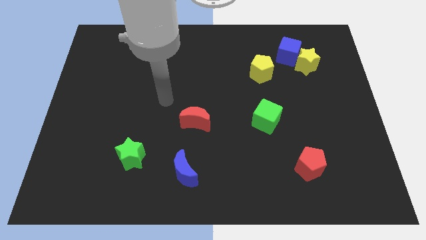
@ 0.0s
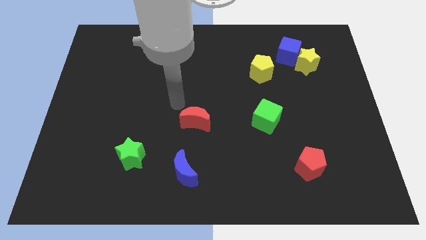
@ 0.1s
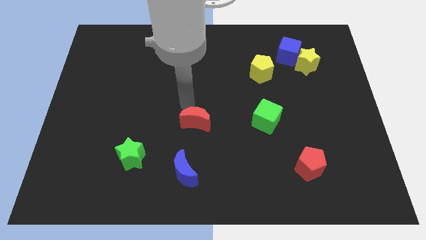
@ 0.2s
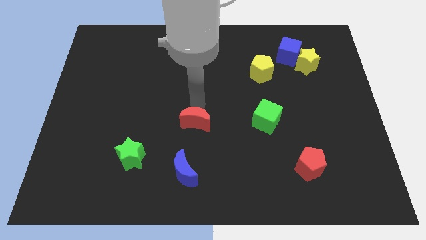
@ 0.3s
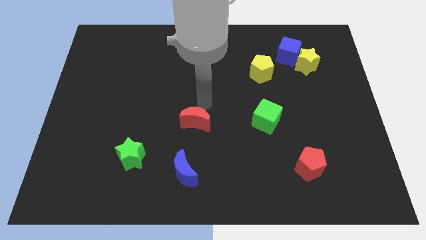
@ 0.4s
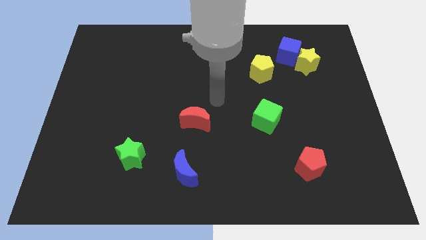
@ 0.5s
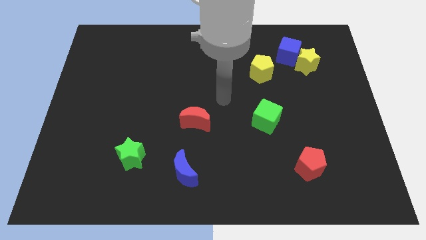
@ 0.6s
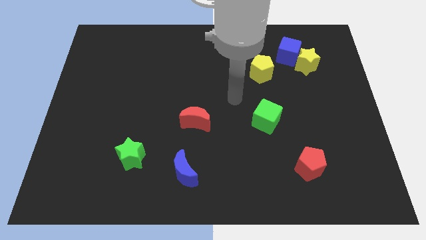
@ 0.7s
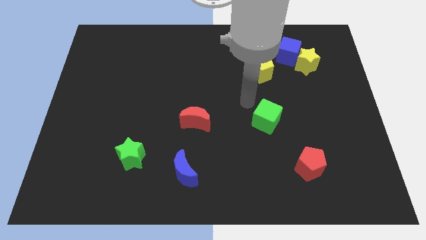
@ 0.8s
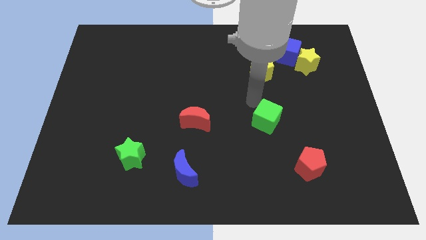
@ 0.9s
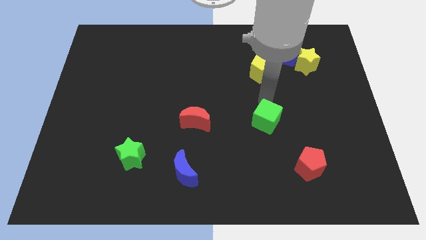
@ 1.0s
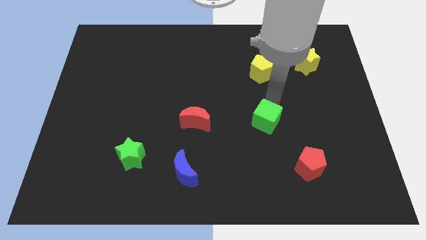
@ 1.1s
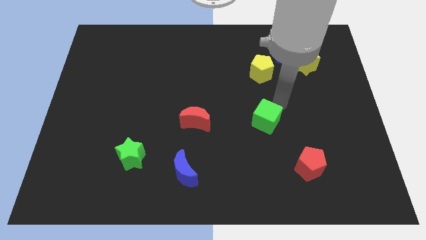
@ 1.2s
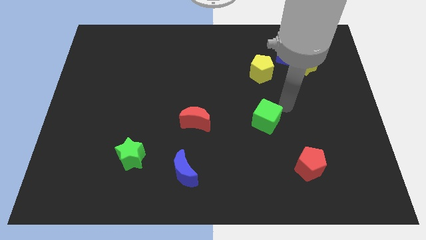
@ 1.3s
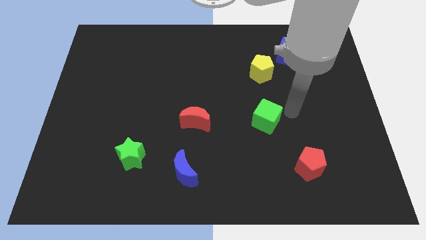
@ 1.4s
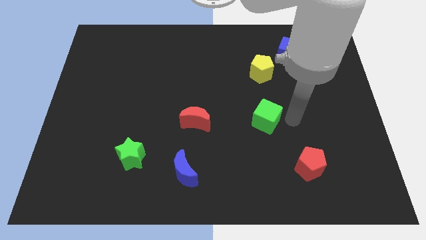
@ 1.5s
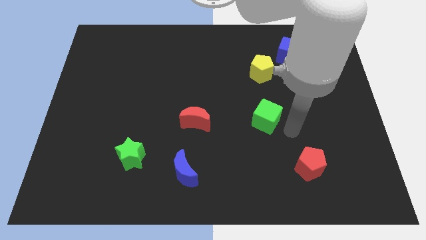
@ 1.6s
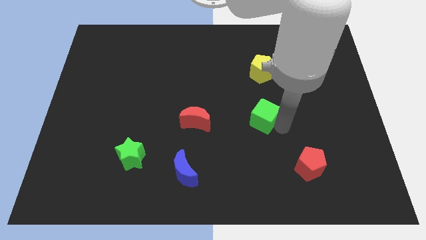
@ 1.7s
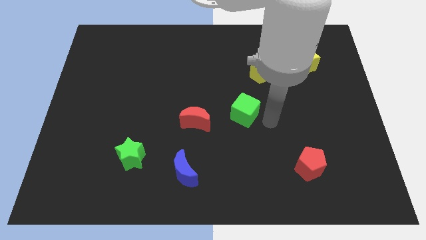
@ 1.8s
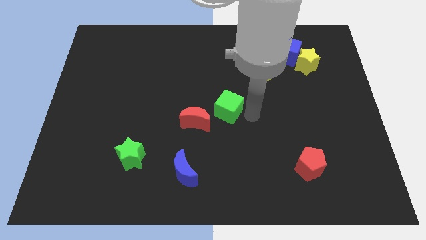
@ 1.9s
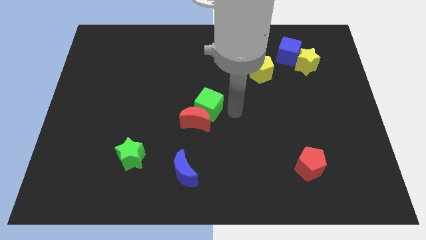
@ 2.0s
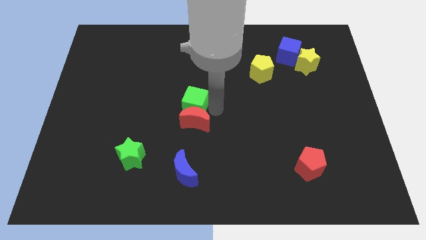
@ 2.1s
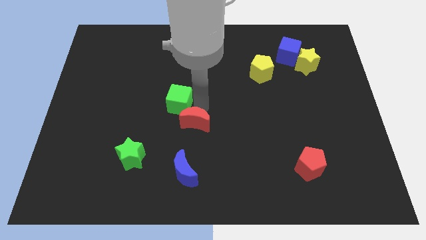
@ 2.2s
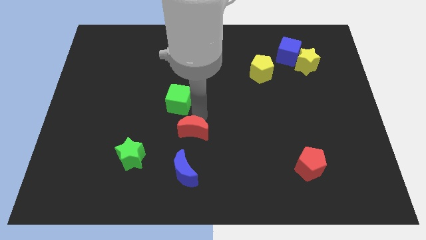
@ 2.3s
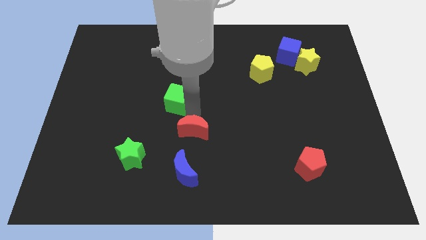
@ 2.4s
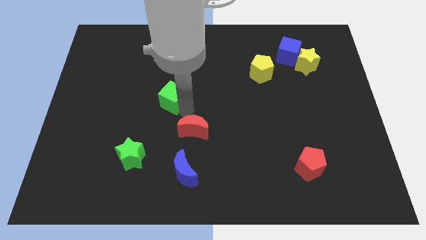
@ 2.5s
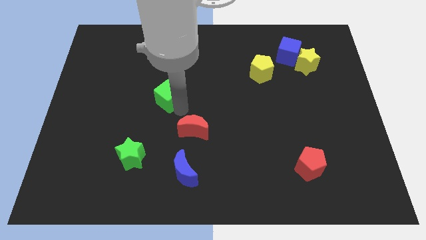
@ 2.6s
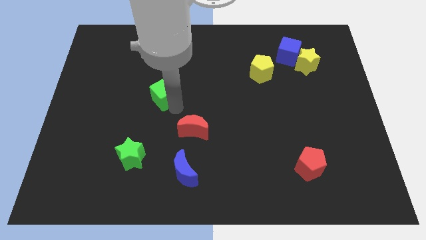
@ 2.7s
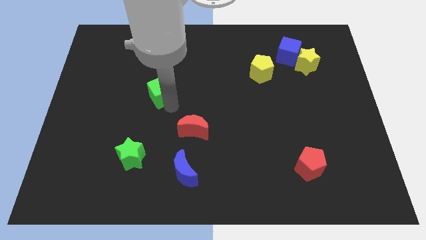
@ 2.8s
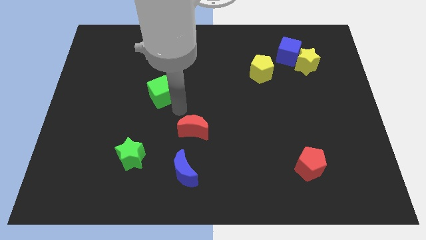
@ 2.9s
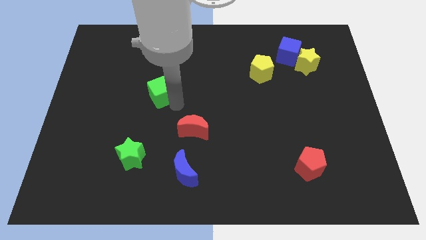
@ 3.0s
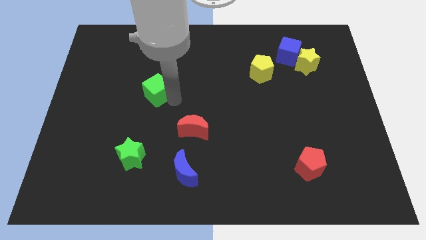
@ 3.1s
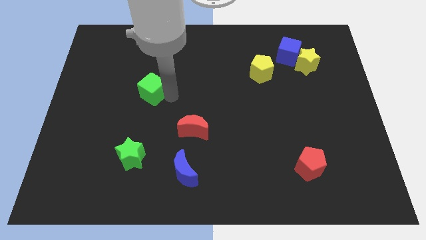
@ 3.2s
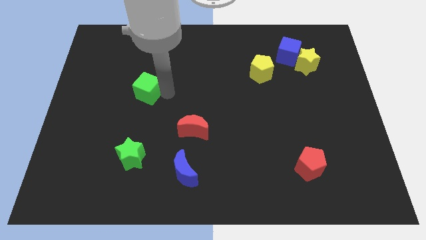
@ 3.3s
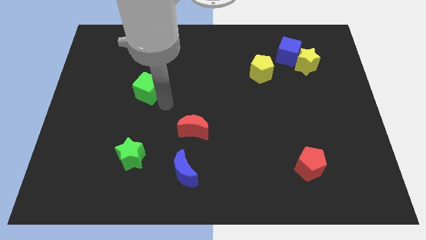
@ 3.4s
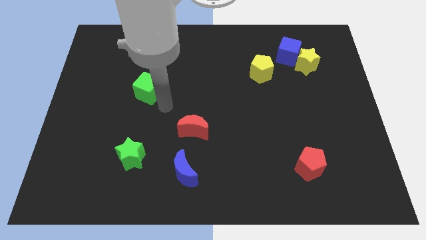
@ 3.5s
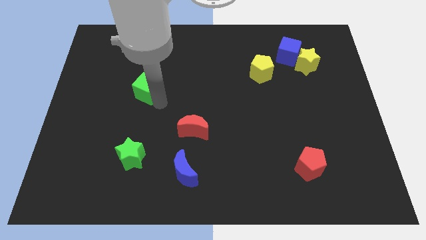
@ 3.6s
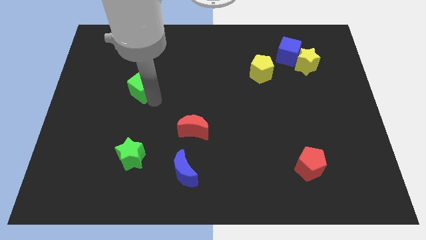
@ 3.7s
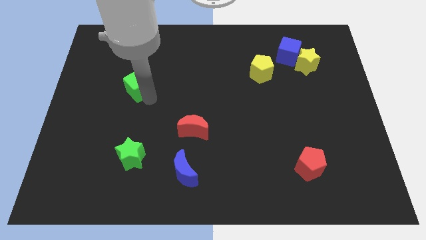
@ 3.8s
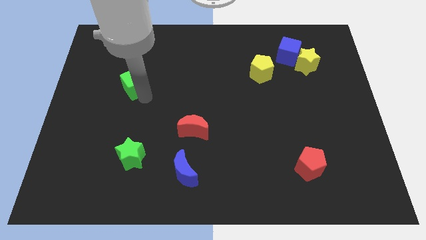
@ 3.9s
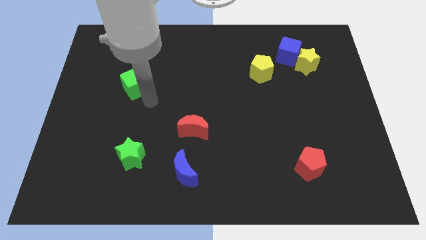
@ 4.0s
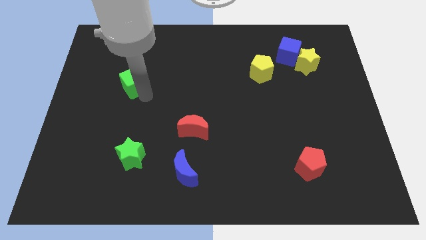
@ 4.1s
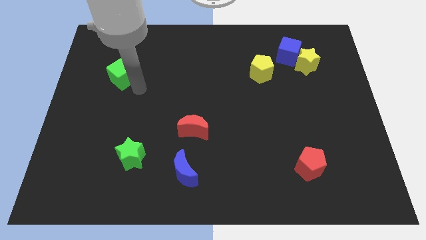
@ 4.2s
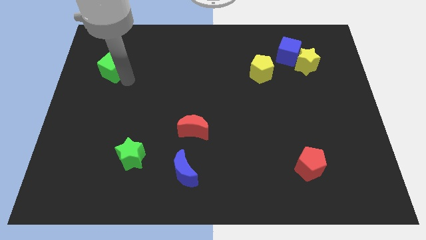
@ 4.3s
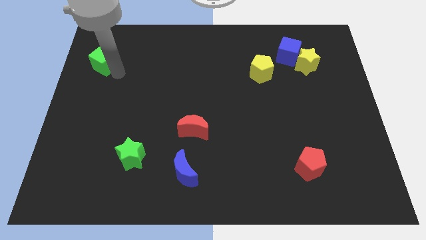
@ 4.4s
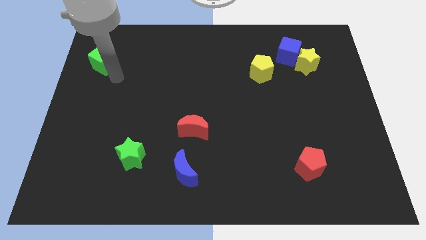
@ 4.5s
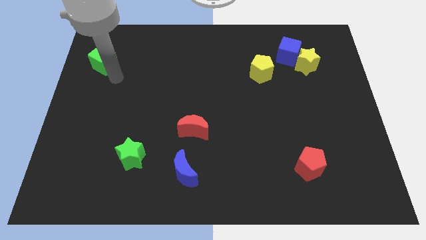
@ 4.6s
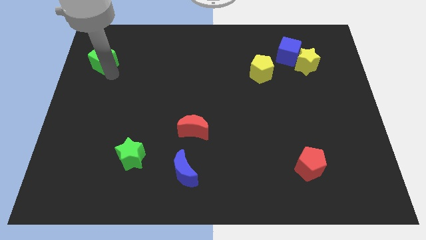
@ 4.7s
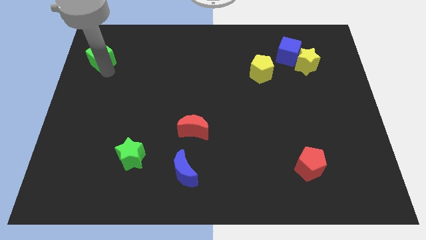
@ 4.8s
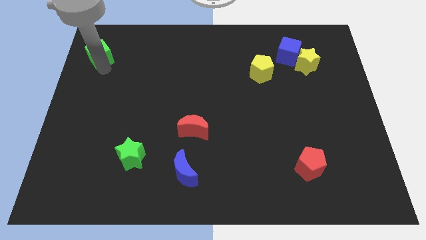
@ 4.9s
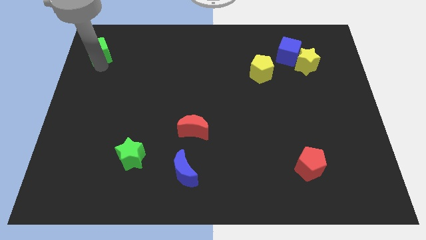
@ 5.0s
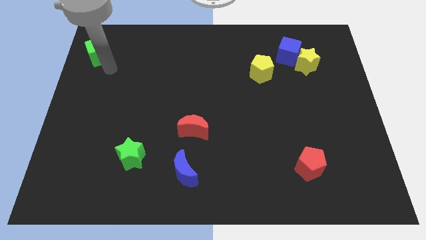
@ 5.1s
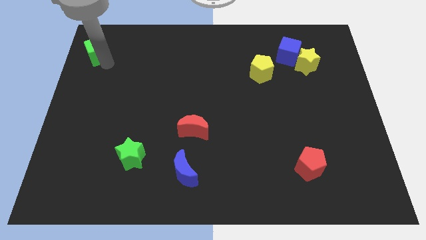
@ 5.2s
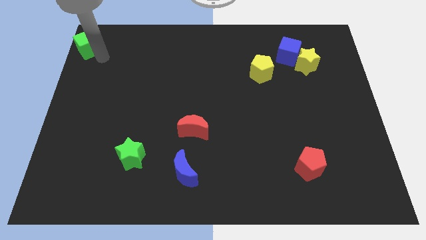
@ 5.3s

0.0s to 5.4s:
push the green cube to the top left corner

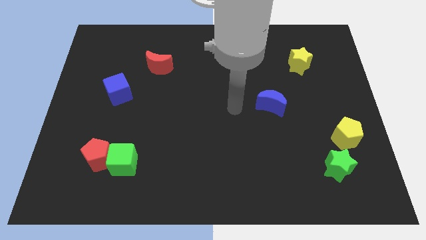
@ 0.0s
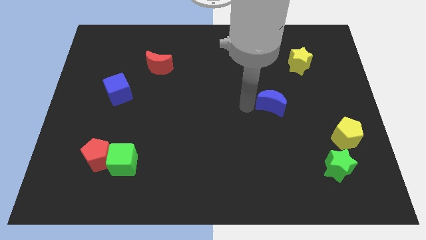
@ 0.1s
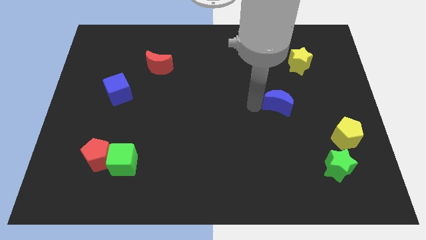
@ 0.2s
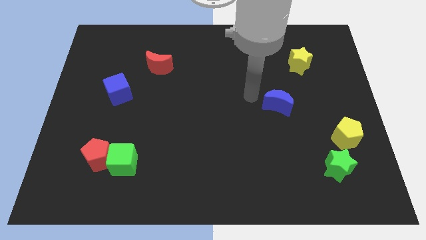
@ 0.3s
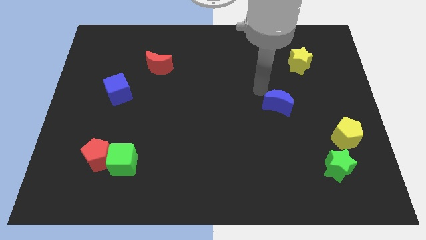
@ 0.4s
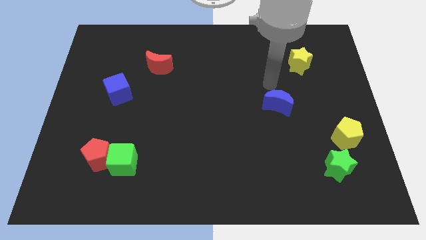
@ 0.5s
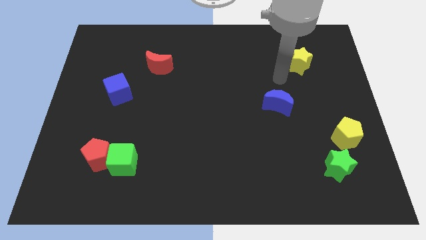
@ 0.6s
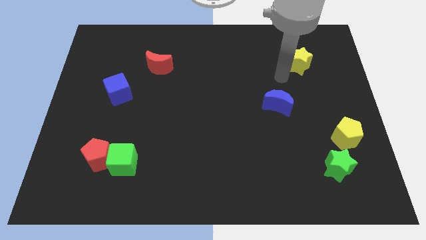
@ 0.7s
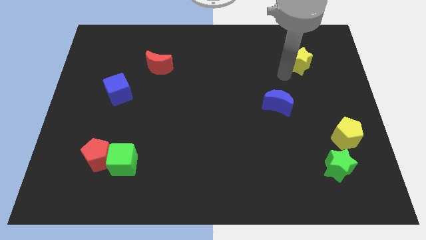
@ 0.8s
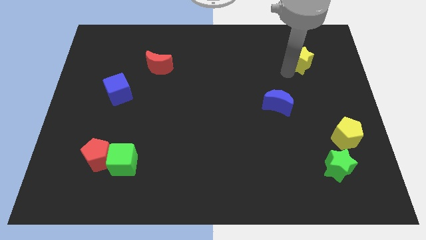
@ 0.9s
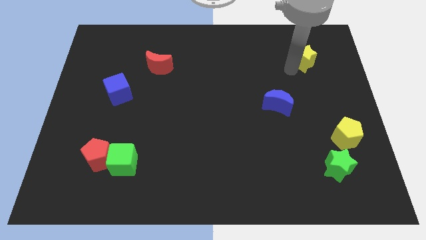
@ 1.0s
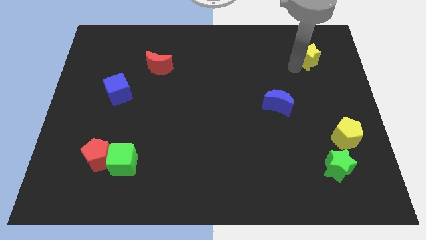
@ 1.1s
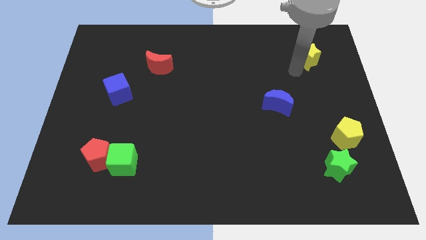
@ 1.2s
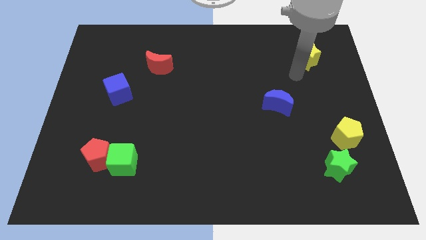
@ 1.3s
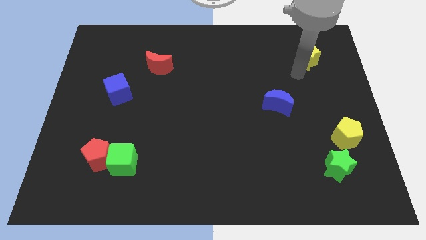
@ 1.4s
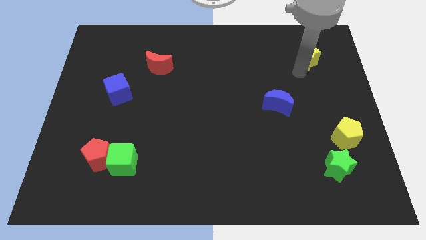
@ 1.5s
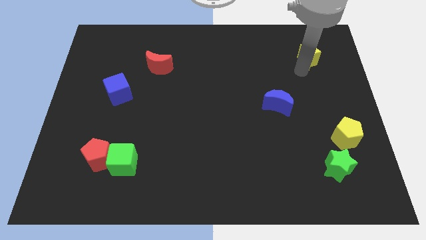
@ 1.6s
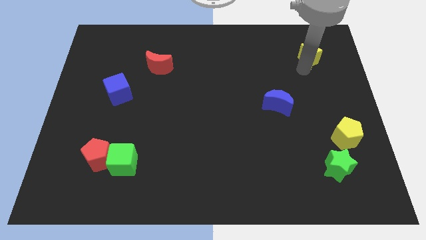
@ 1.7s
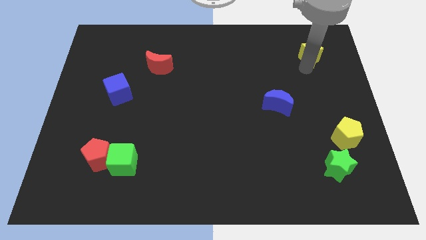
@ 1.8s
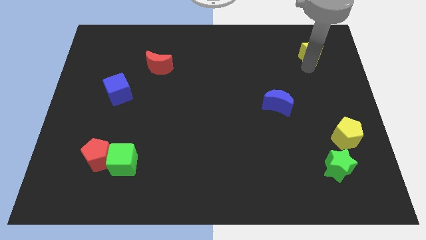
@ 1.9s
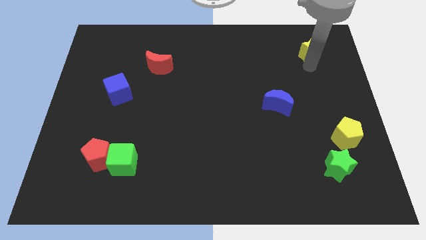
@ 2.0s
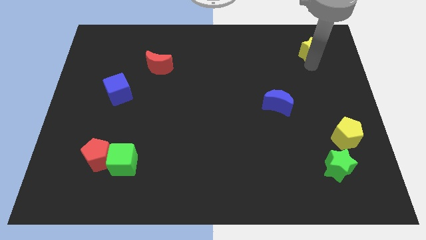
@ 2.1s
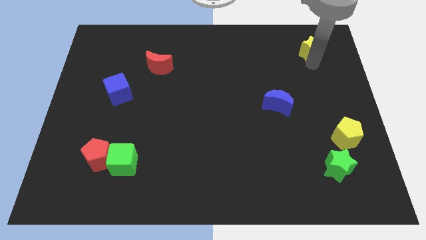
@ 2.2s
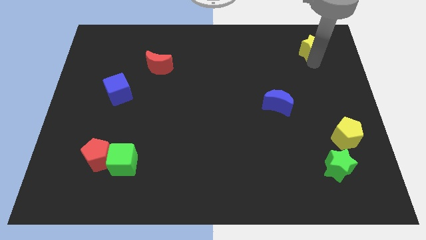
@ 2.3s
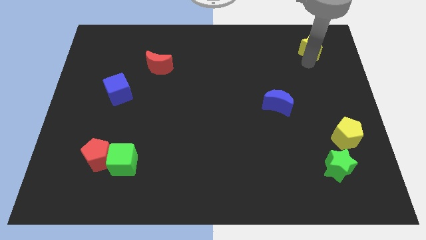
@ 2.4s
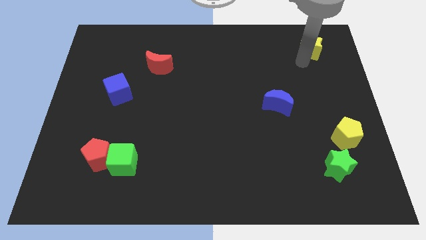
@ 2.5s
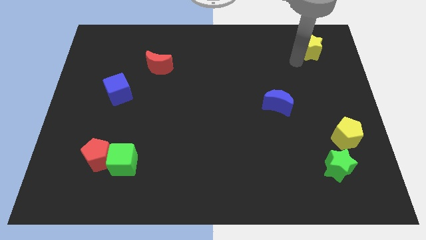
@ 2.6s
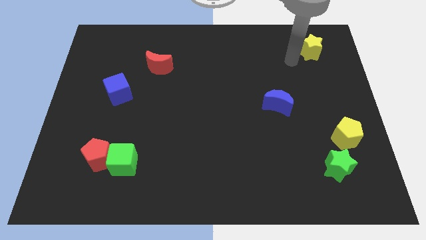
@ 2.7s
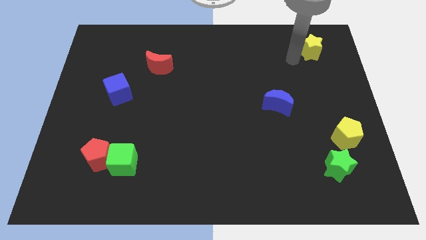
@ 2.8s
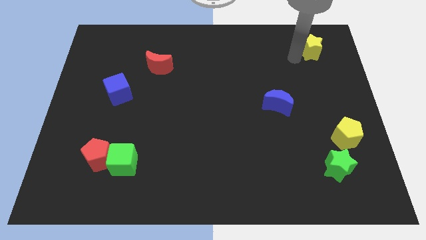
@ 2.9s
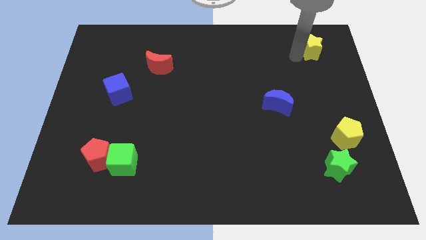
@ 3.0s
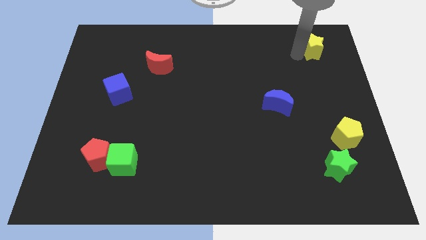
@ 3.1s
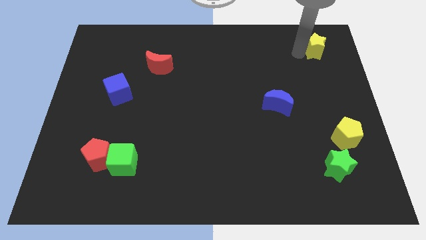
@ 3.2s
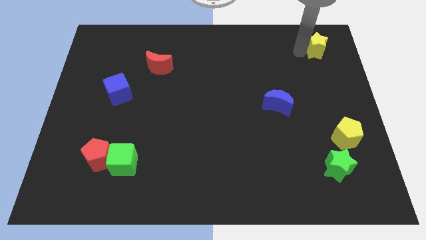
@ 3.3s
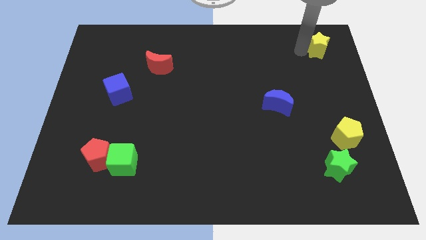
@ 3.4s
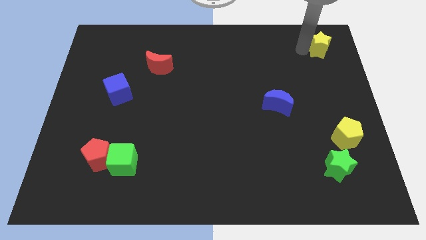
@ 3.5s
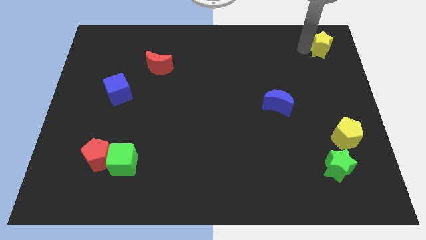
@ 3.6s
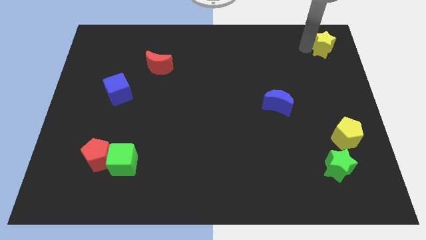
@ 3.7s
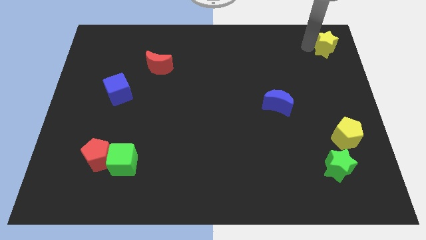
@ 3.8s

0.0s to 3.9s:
push the yellow star to the top right
